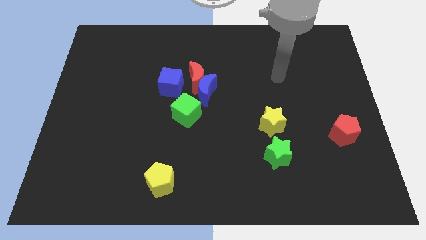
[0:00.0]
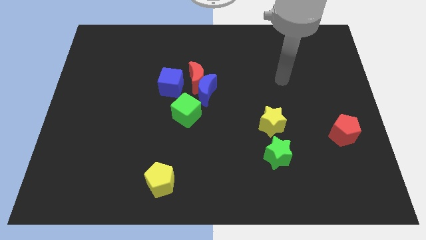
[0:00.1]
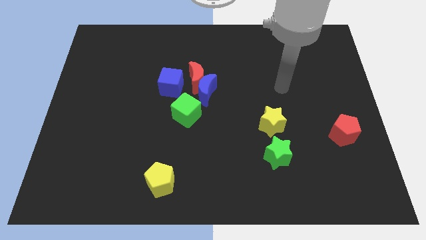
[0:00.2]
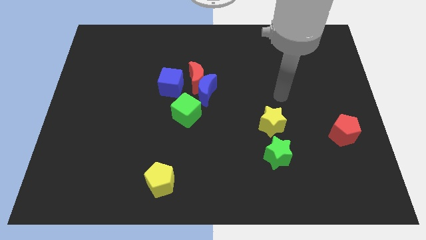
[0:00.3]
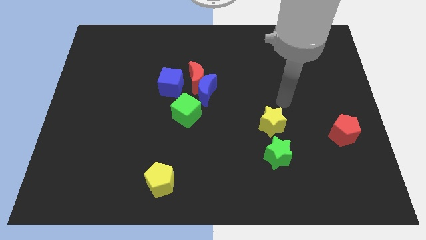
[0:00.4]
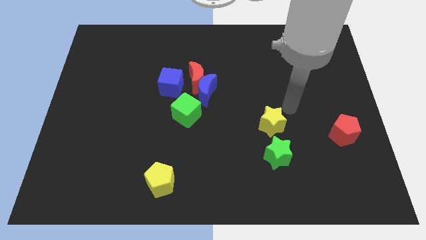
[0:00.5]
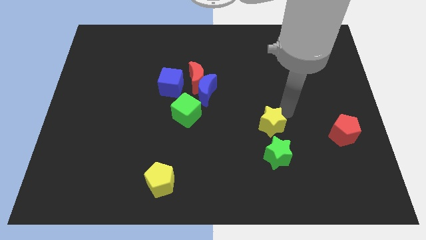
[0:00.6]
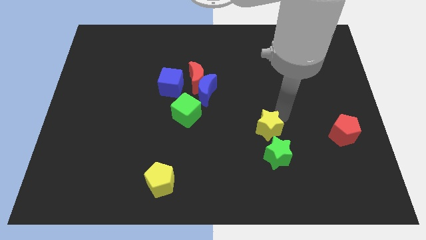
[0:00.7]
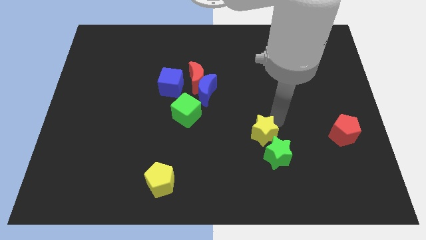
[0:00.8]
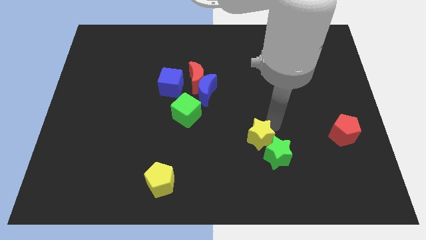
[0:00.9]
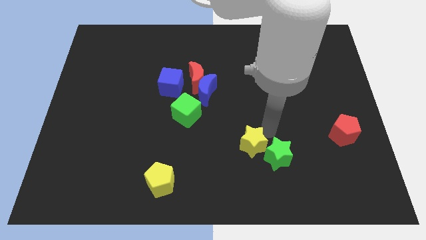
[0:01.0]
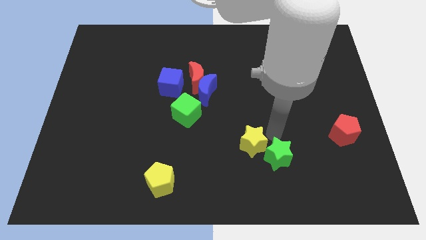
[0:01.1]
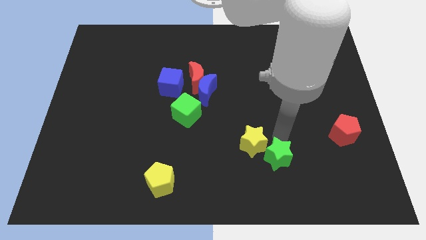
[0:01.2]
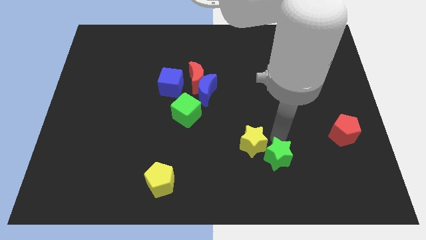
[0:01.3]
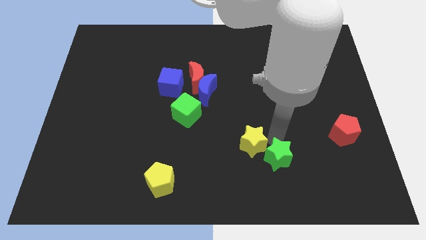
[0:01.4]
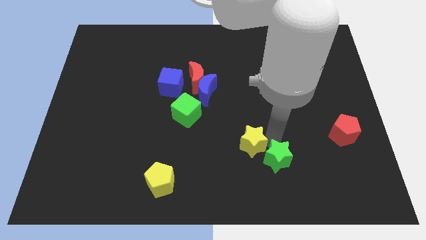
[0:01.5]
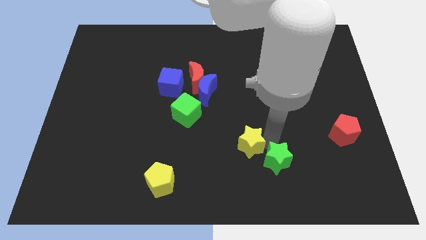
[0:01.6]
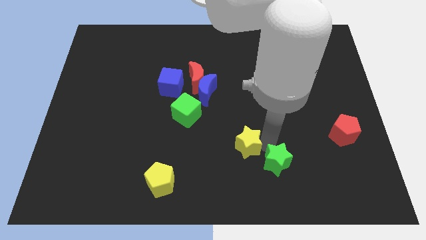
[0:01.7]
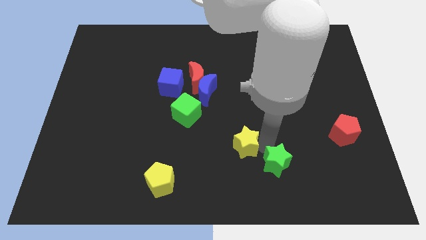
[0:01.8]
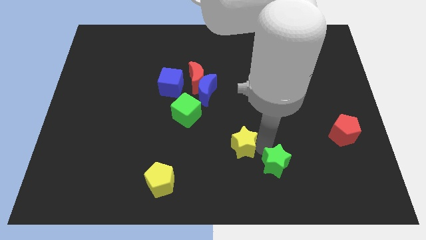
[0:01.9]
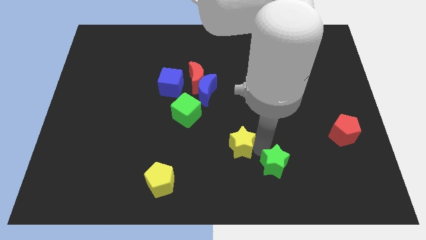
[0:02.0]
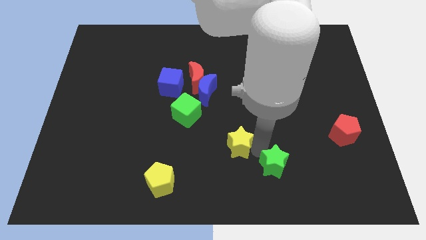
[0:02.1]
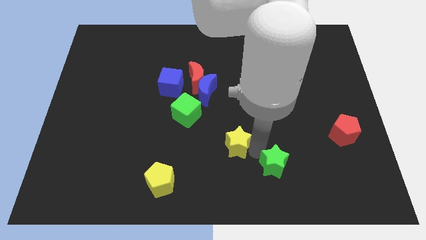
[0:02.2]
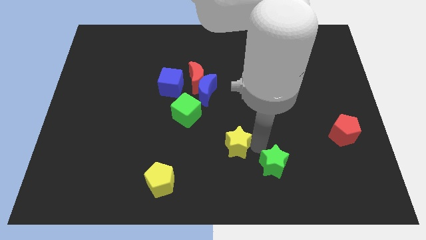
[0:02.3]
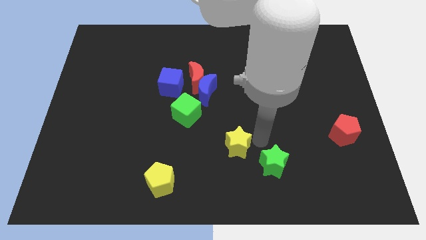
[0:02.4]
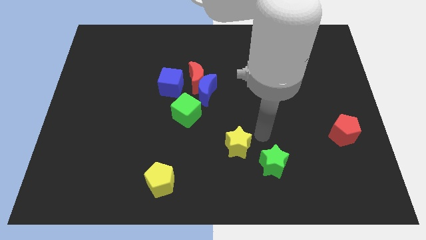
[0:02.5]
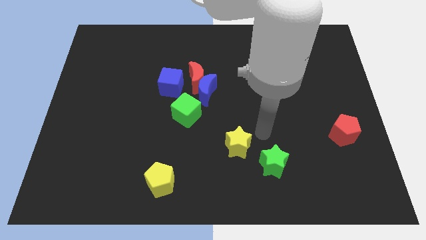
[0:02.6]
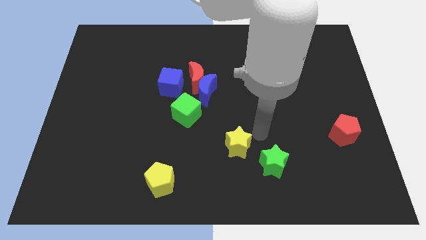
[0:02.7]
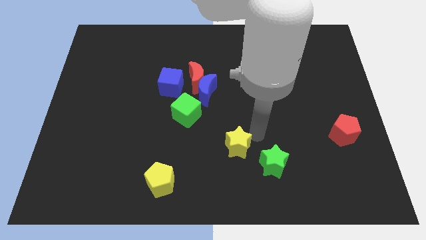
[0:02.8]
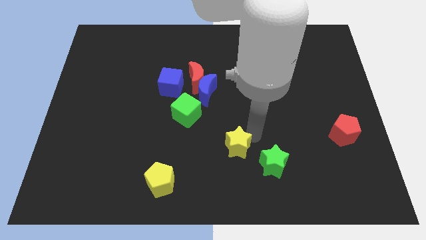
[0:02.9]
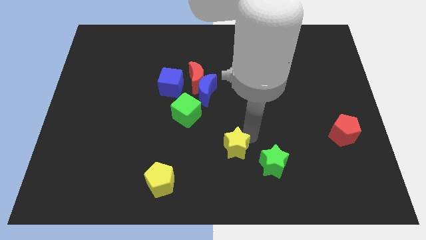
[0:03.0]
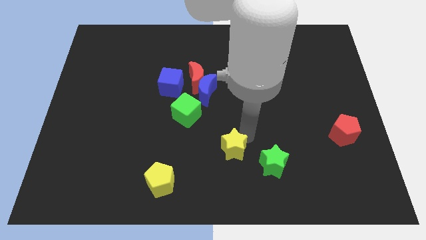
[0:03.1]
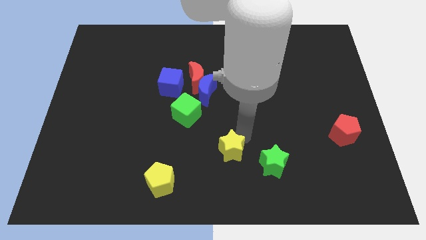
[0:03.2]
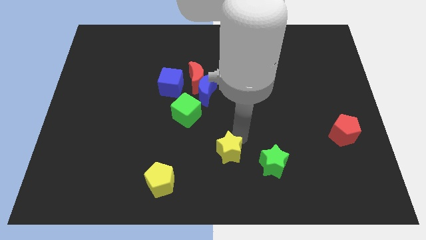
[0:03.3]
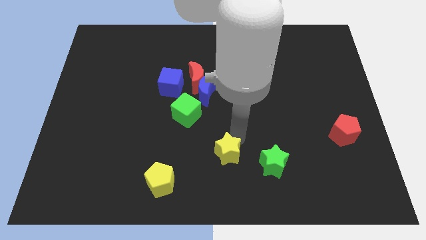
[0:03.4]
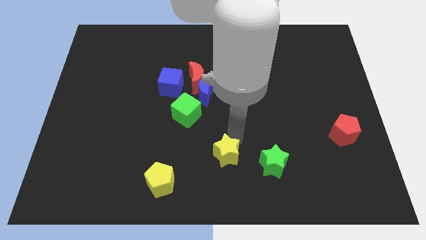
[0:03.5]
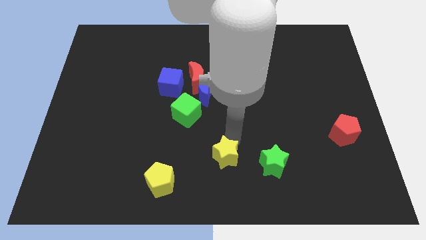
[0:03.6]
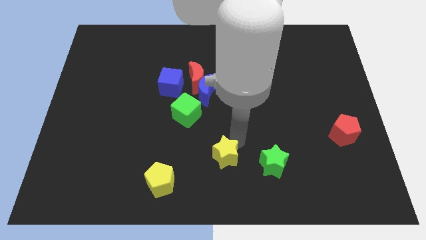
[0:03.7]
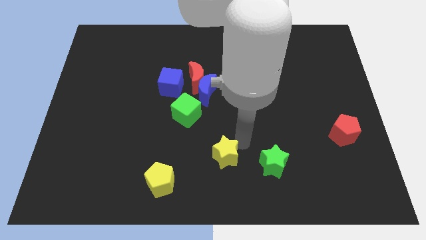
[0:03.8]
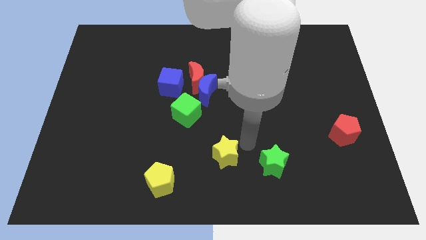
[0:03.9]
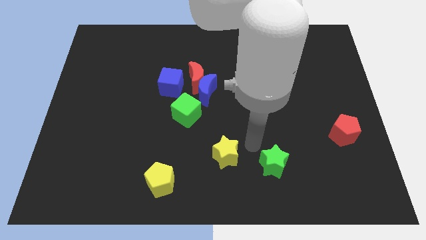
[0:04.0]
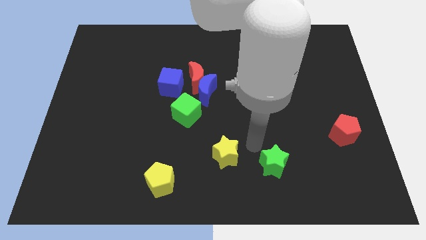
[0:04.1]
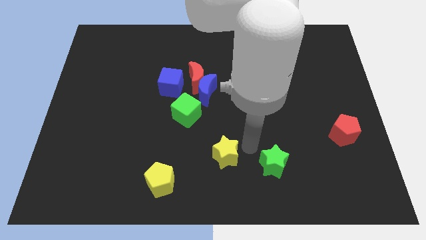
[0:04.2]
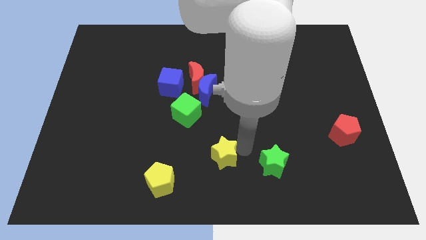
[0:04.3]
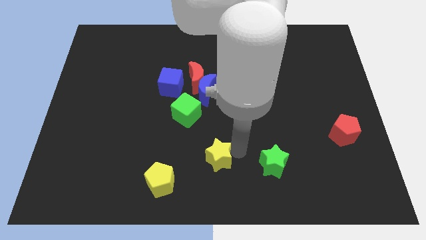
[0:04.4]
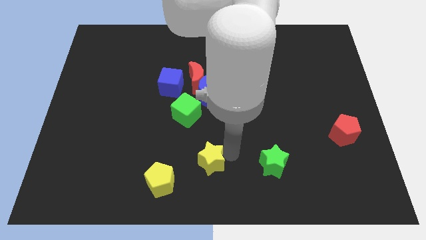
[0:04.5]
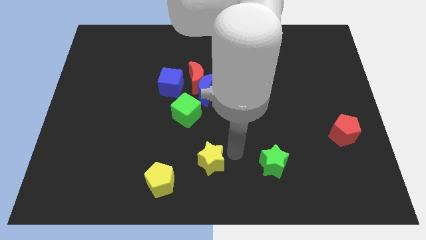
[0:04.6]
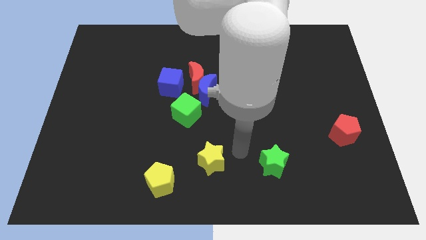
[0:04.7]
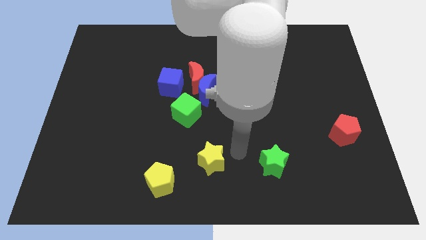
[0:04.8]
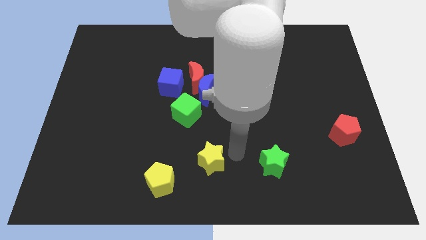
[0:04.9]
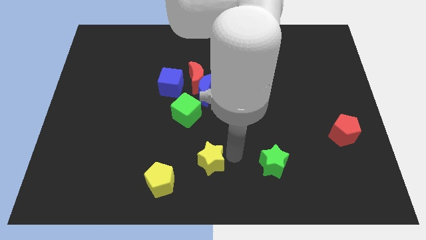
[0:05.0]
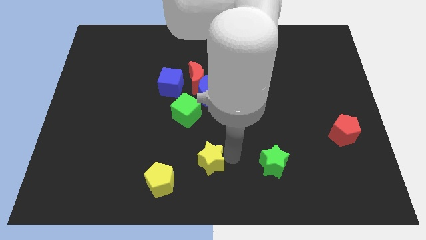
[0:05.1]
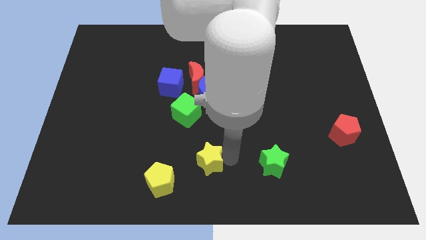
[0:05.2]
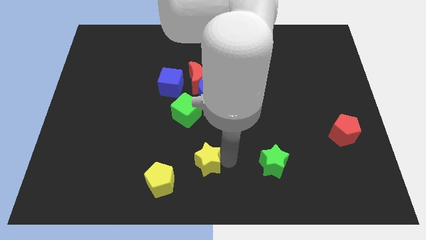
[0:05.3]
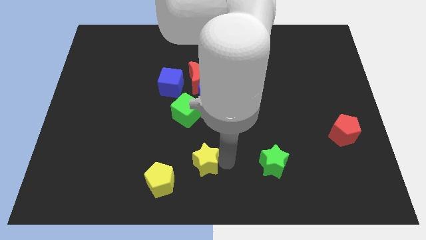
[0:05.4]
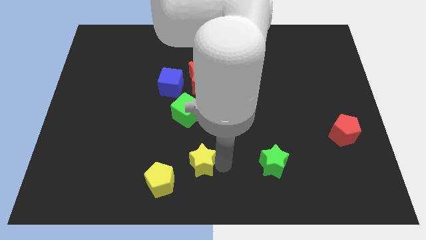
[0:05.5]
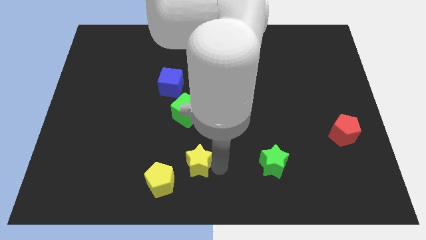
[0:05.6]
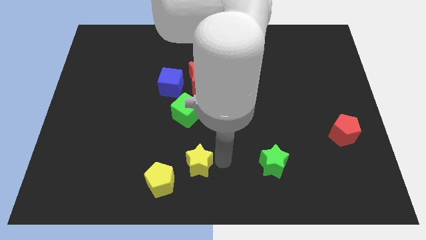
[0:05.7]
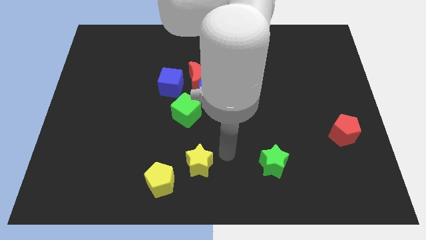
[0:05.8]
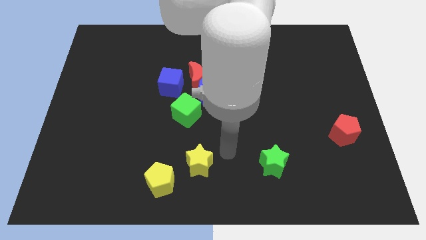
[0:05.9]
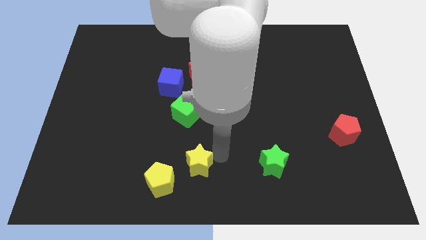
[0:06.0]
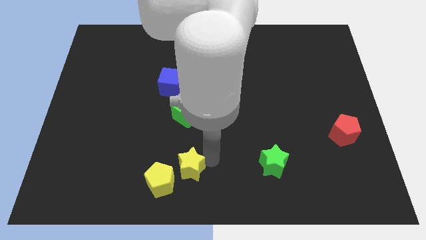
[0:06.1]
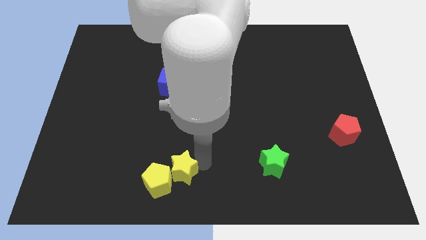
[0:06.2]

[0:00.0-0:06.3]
move the yellow star towards the yellow pentagon

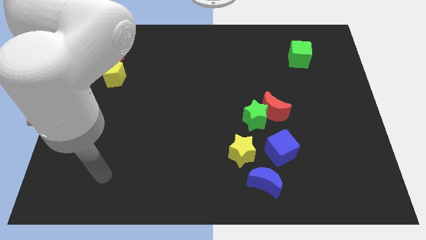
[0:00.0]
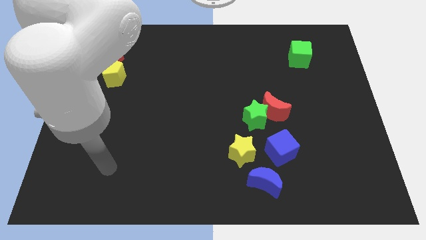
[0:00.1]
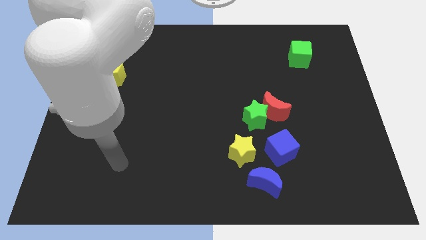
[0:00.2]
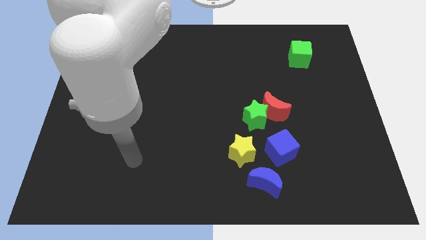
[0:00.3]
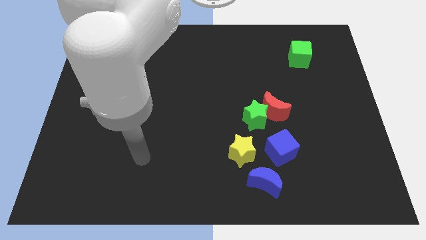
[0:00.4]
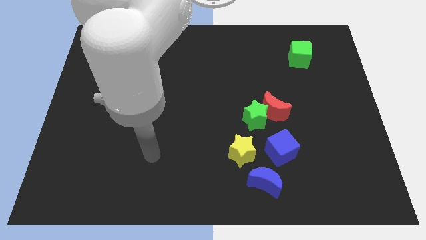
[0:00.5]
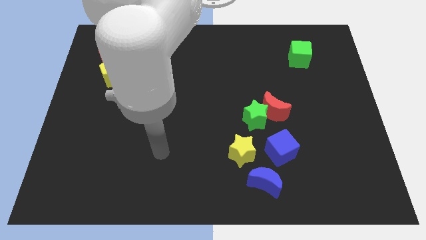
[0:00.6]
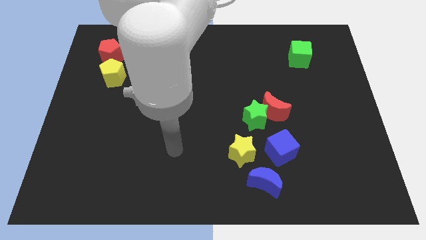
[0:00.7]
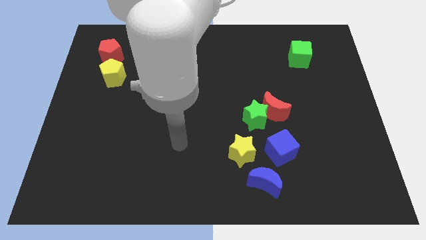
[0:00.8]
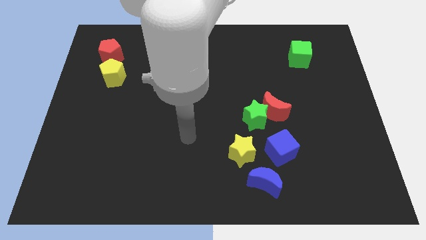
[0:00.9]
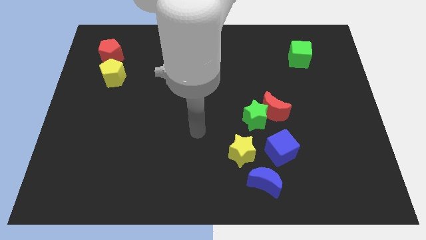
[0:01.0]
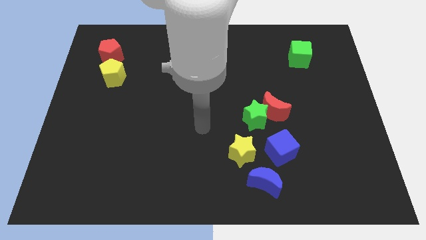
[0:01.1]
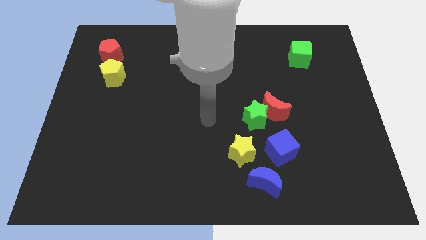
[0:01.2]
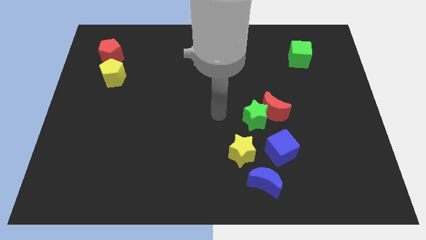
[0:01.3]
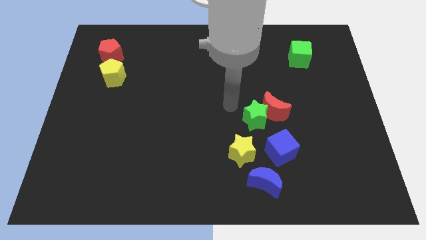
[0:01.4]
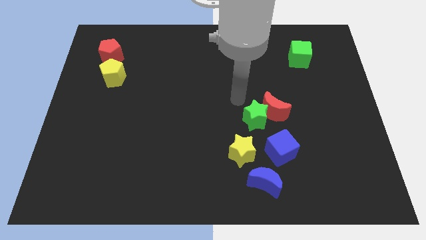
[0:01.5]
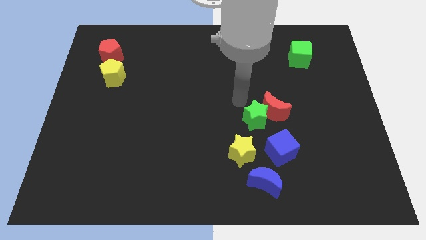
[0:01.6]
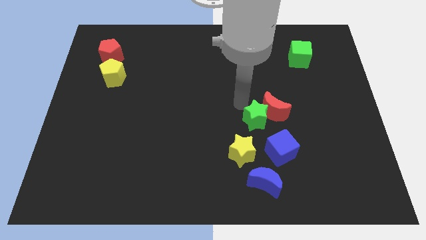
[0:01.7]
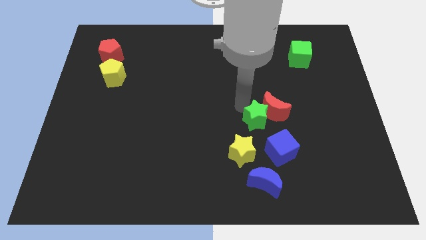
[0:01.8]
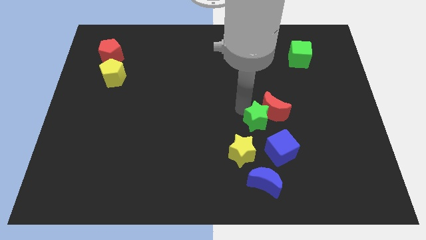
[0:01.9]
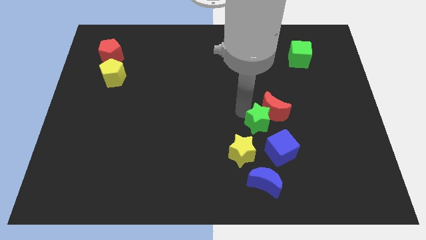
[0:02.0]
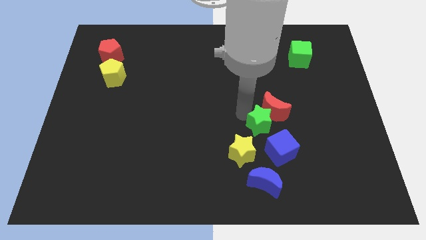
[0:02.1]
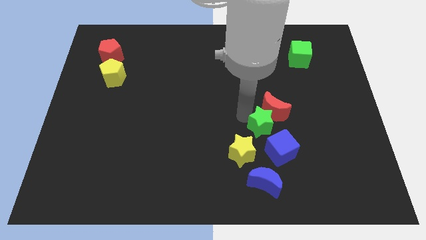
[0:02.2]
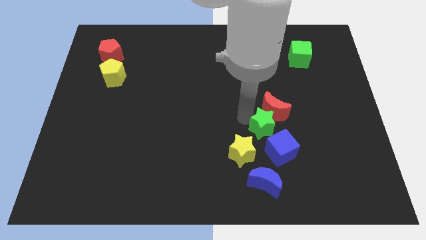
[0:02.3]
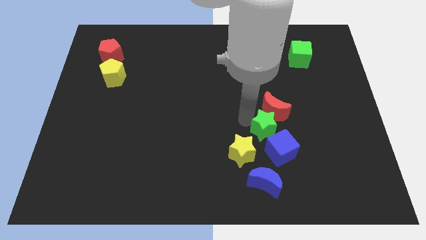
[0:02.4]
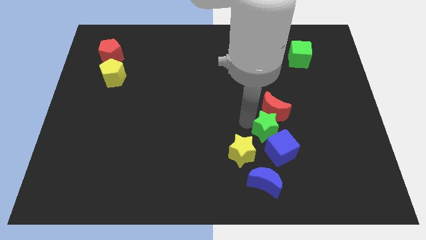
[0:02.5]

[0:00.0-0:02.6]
move the green star close to the blue cube
